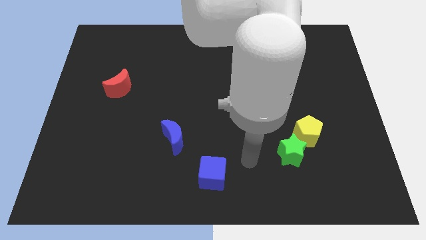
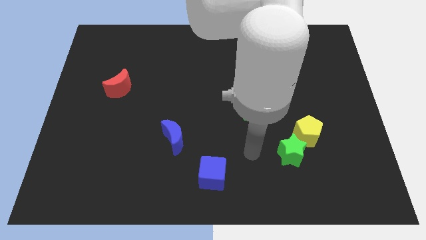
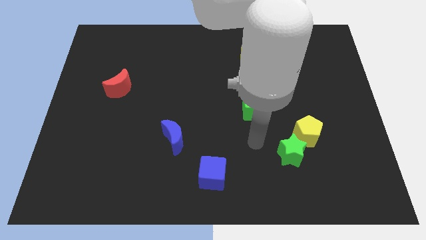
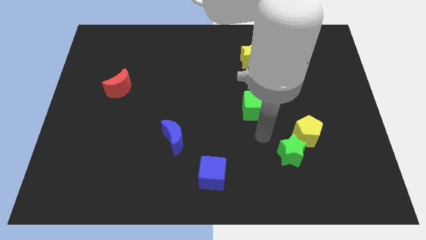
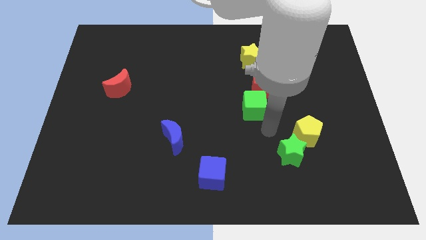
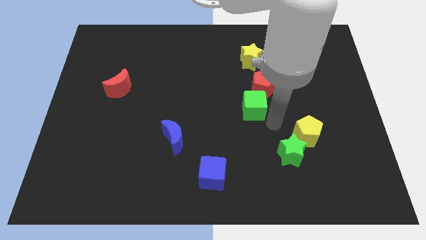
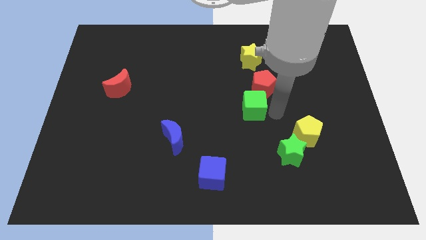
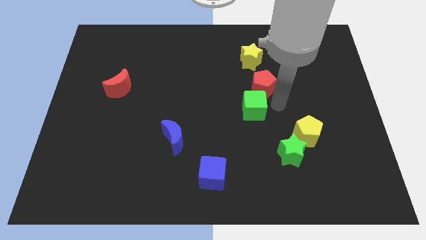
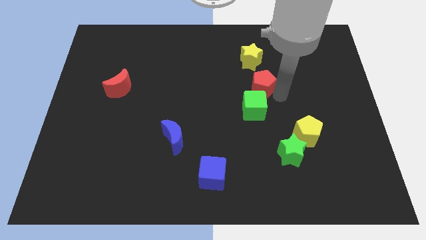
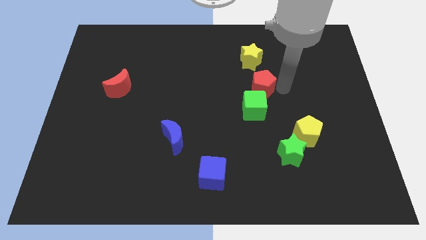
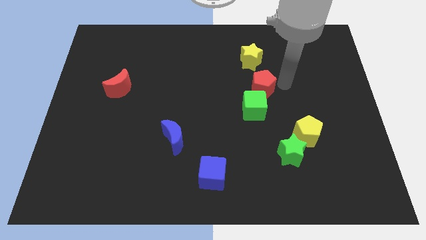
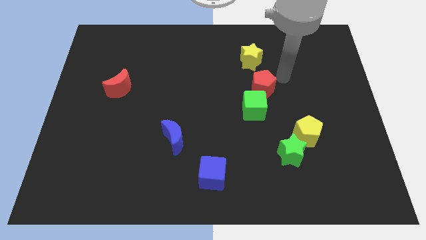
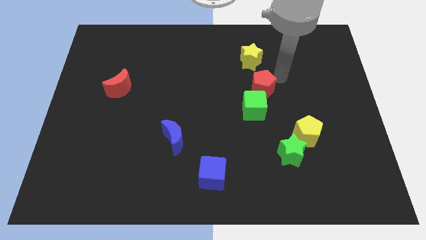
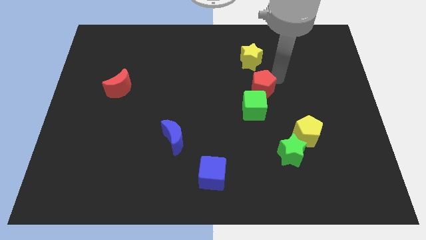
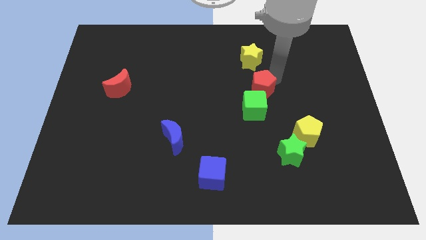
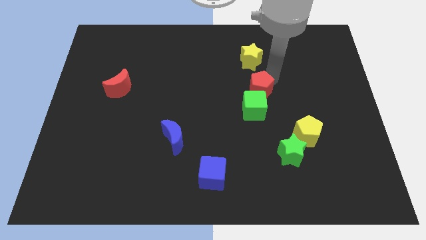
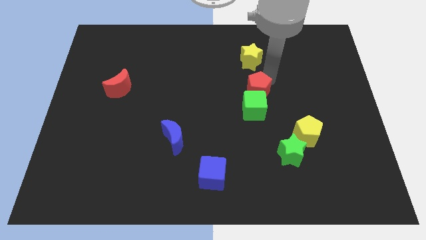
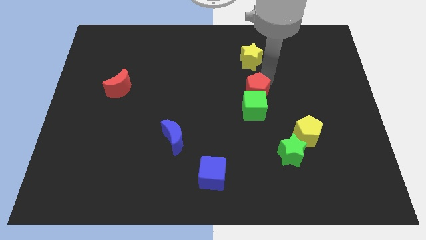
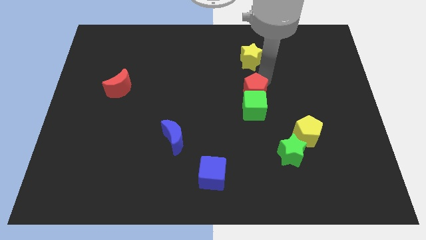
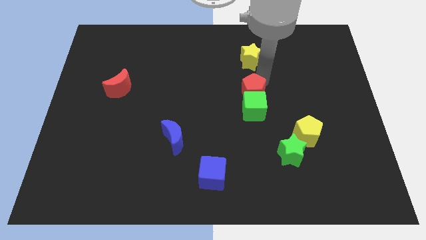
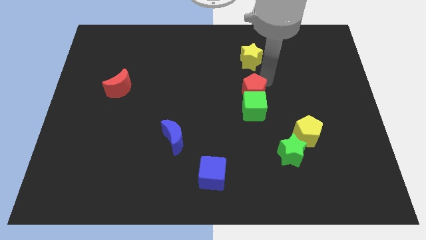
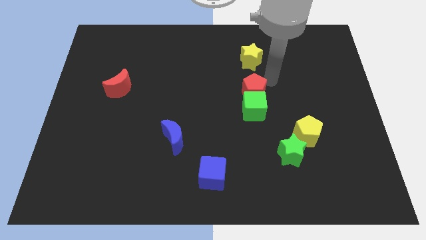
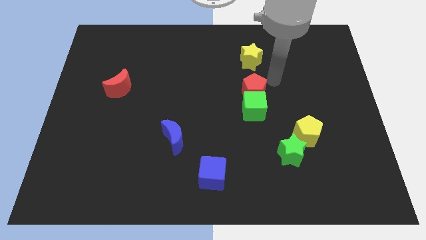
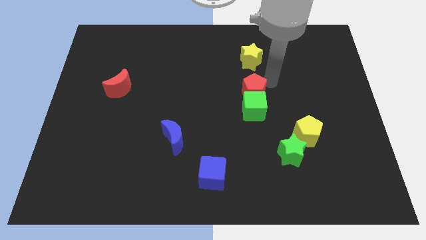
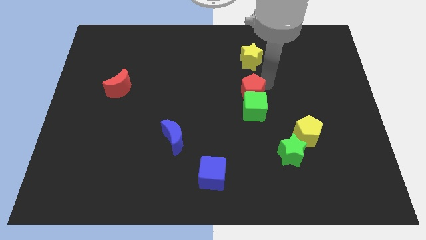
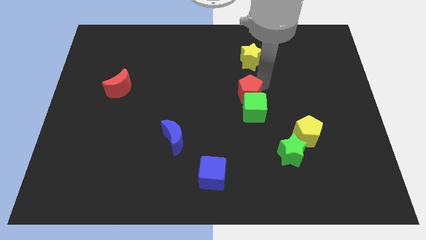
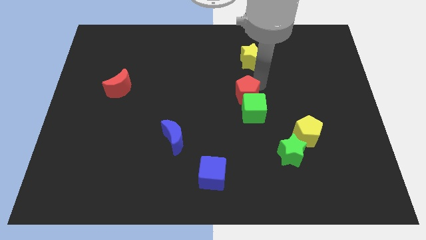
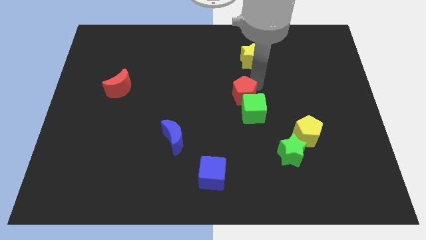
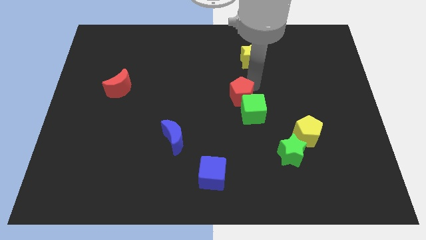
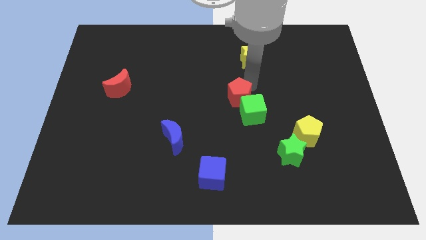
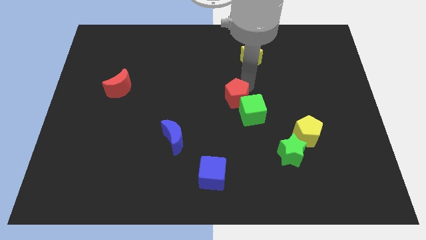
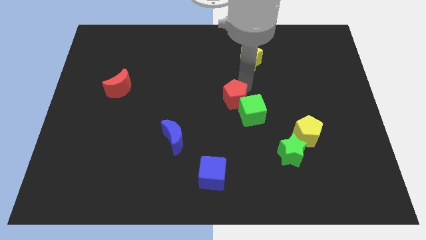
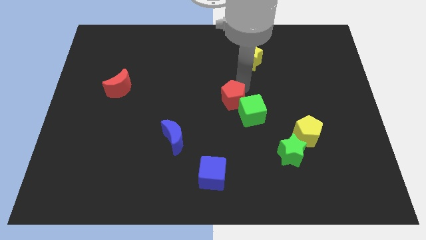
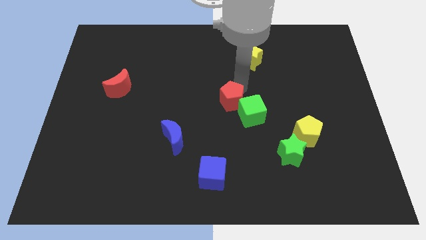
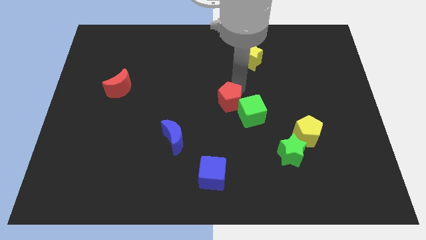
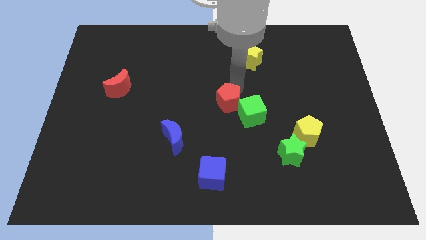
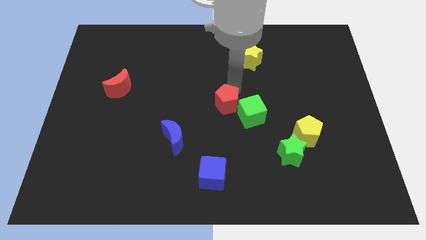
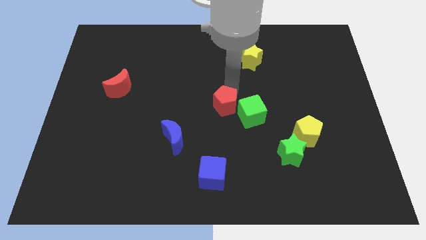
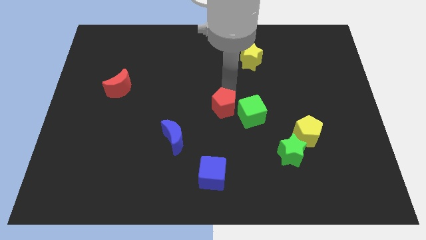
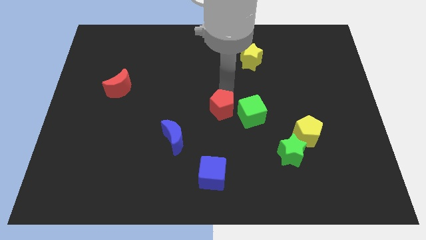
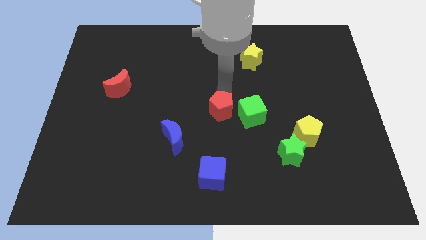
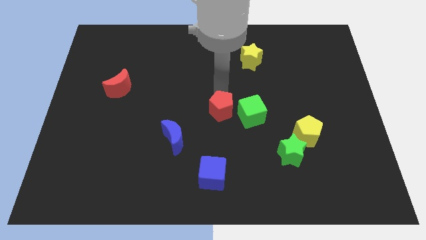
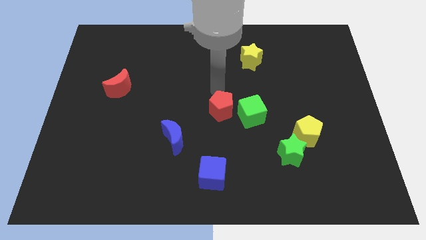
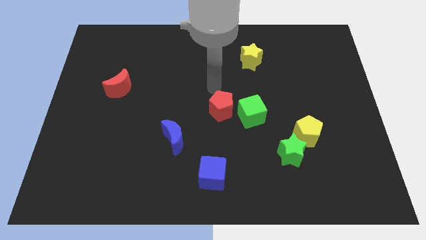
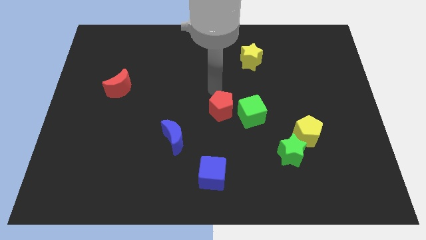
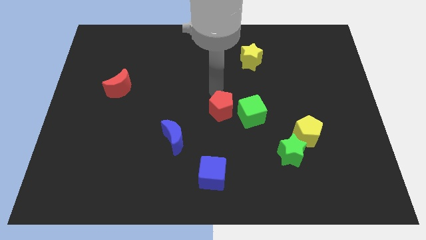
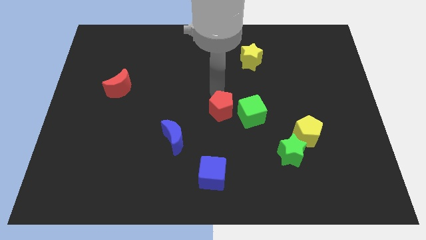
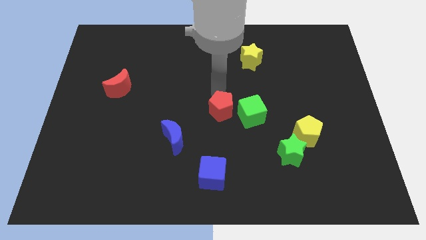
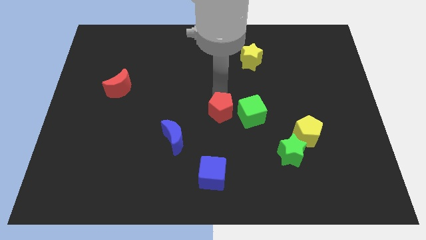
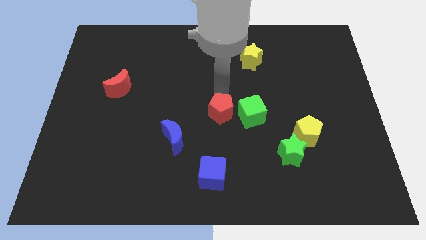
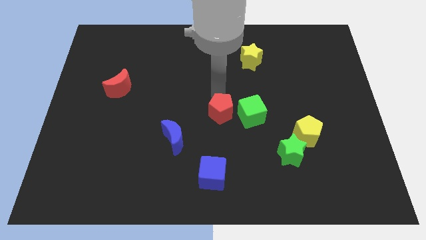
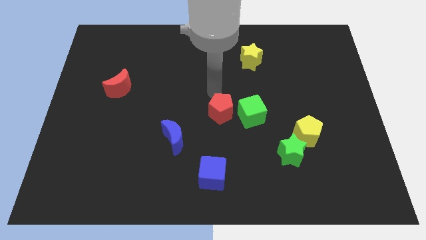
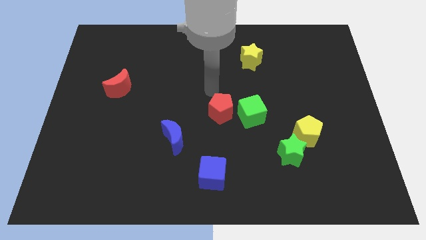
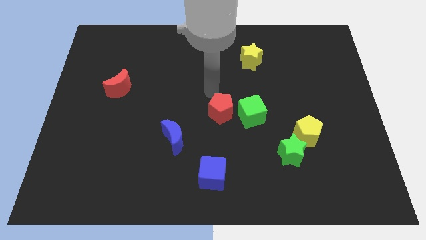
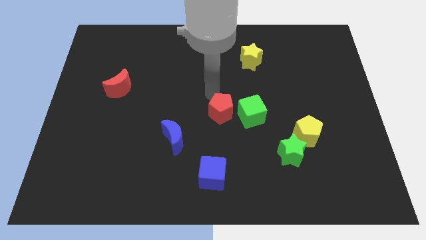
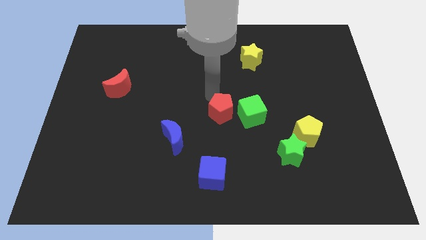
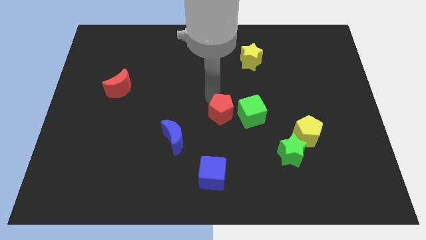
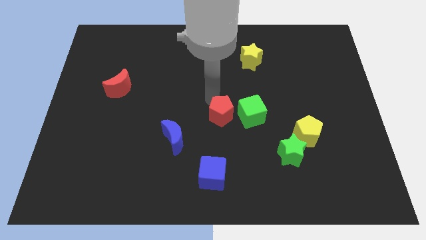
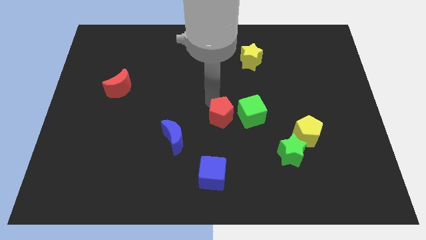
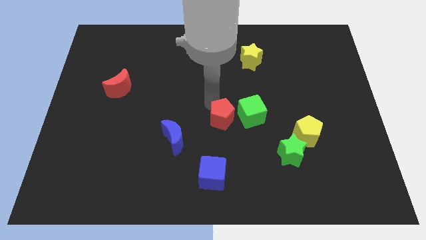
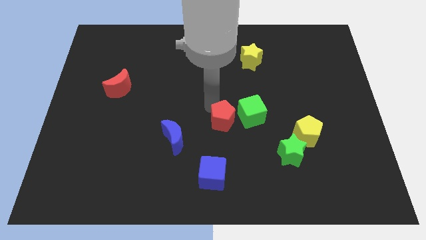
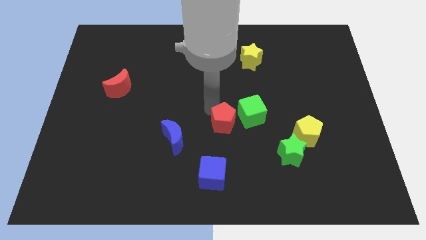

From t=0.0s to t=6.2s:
push the red pentagon just right of the blue moon

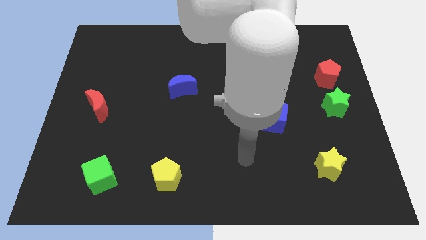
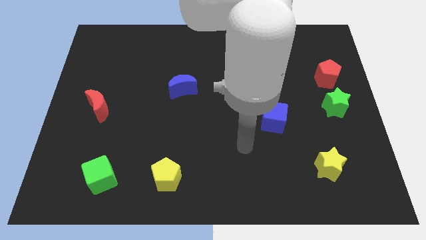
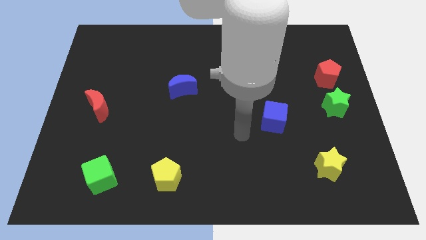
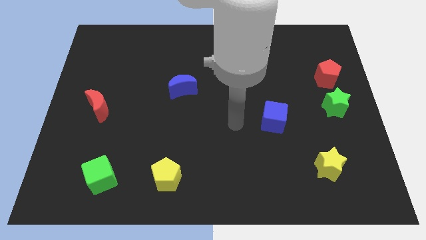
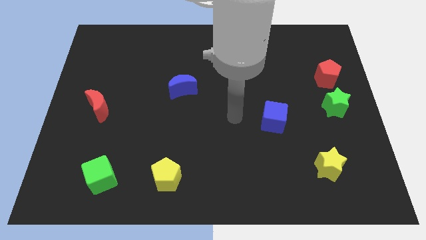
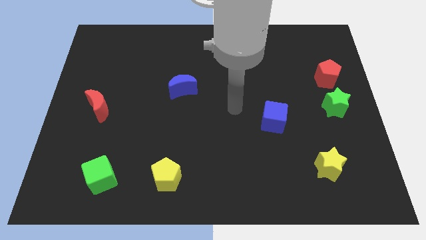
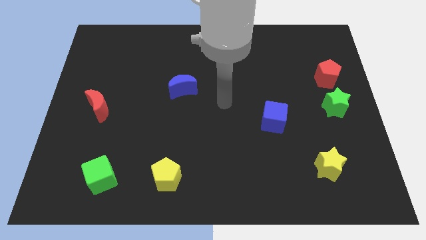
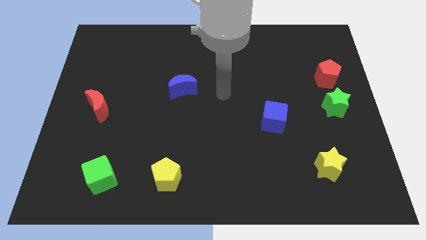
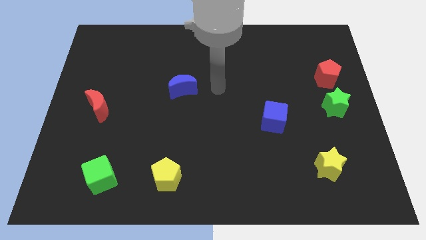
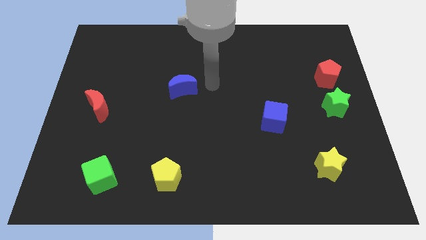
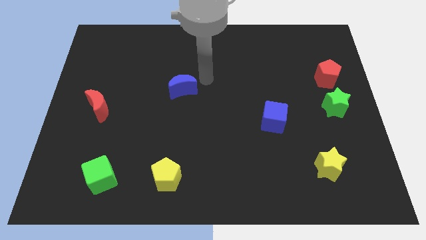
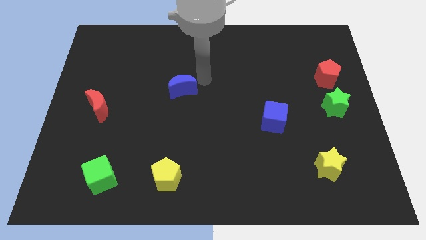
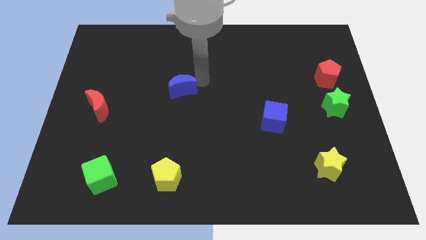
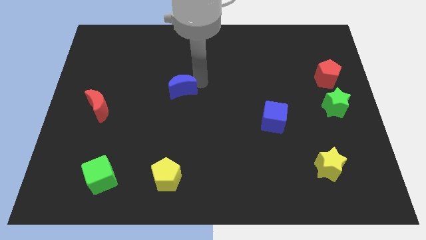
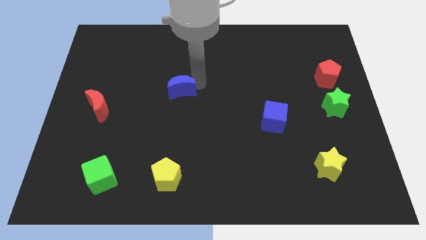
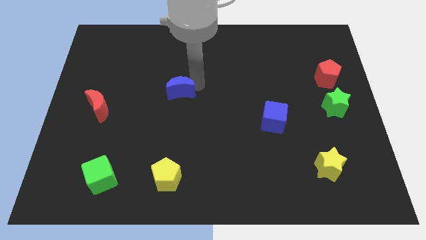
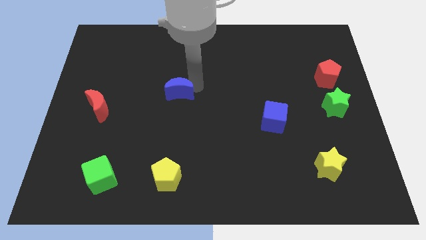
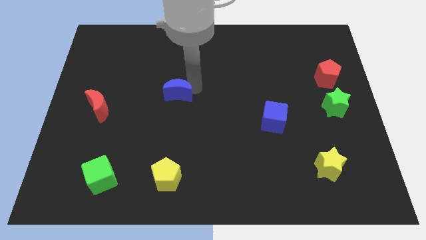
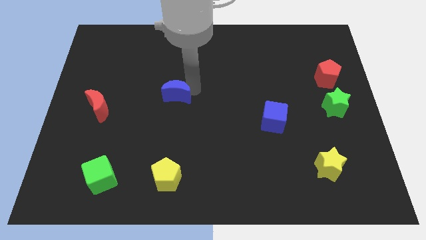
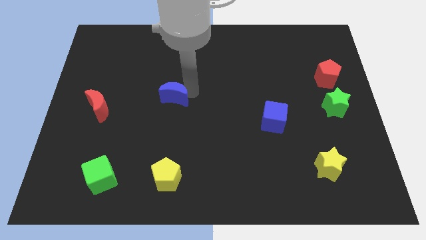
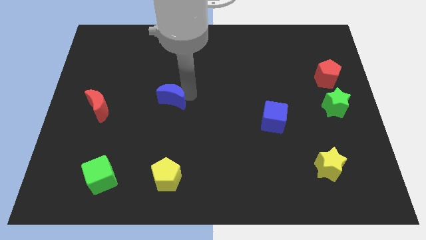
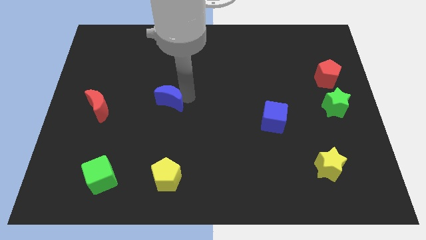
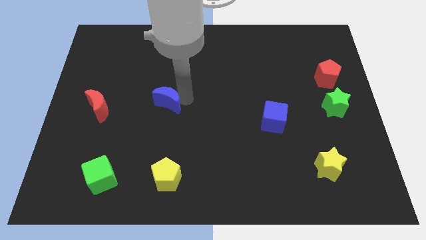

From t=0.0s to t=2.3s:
put the blue moon to the right side of the red moon
